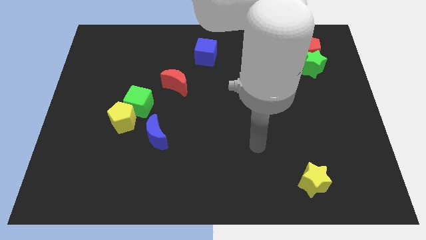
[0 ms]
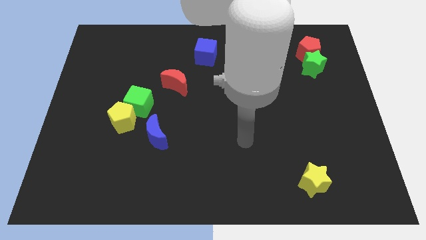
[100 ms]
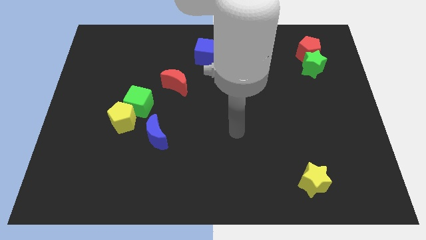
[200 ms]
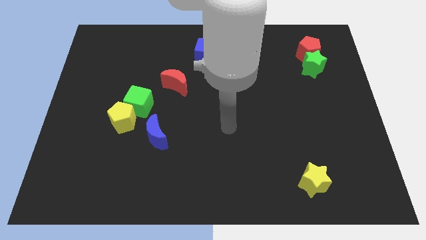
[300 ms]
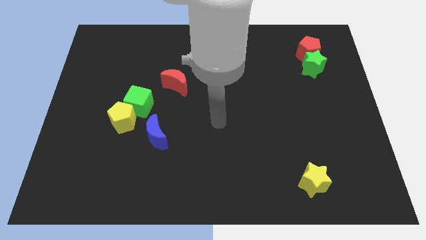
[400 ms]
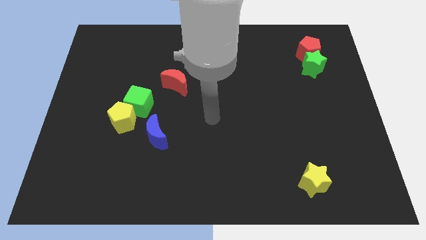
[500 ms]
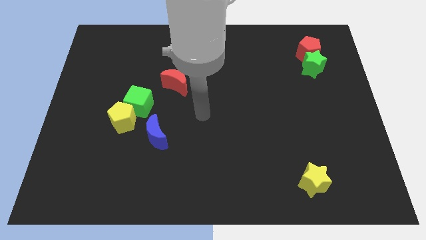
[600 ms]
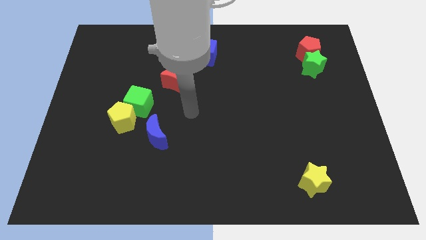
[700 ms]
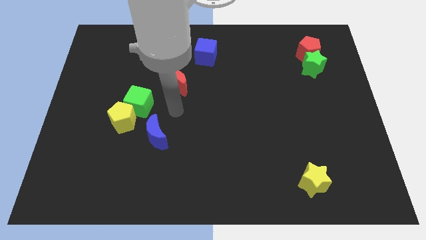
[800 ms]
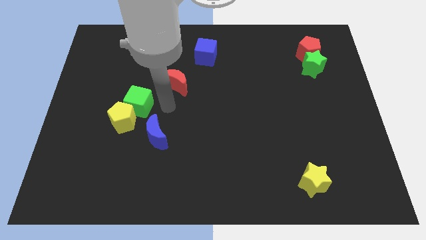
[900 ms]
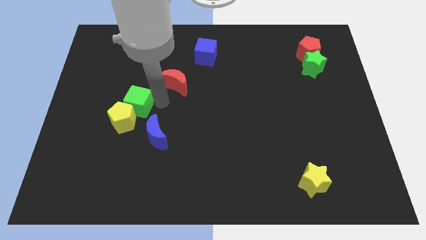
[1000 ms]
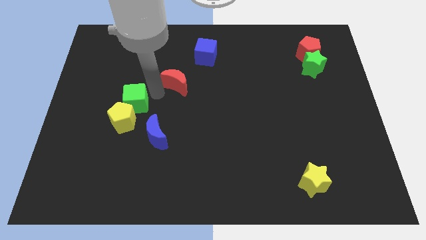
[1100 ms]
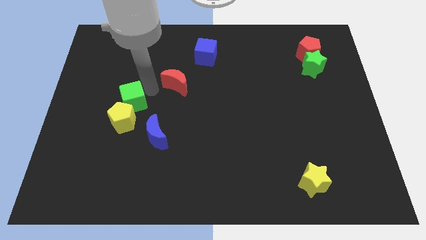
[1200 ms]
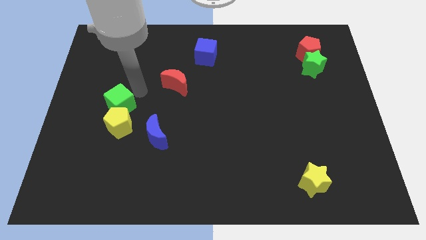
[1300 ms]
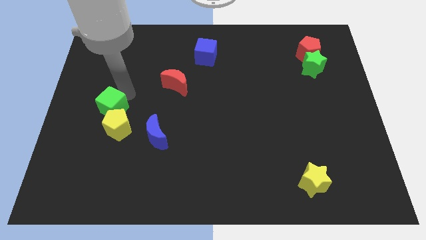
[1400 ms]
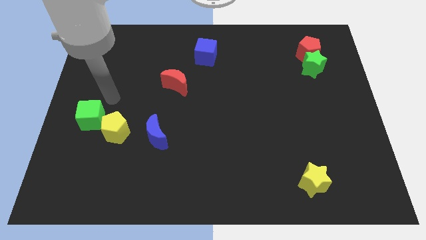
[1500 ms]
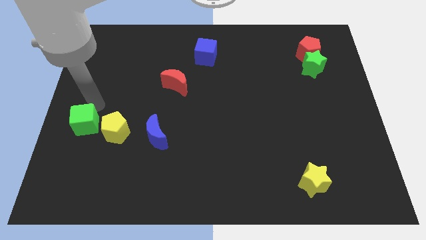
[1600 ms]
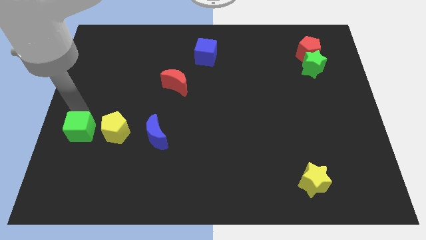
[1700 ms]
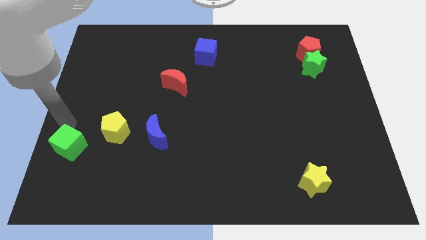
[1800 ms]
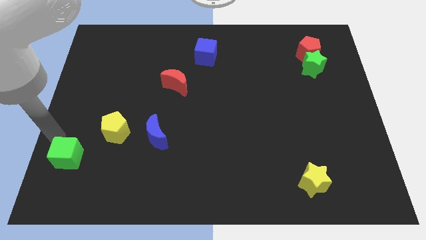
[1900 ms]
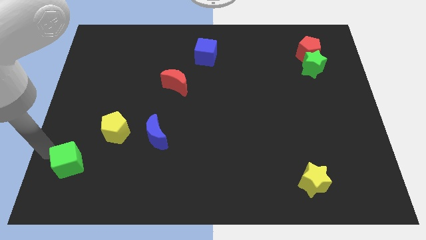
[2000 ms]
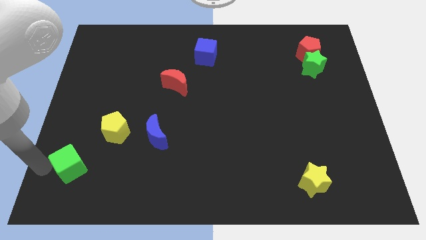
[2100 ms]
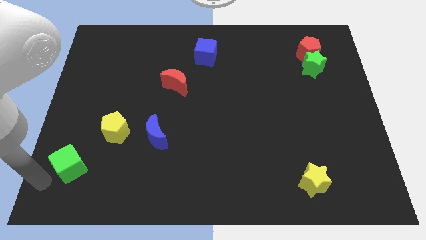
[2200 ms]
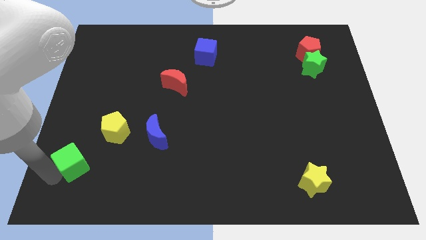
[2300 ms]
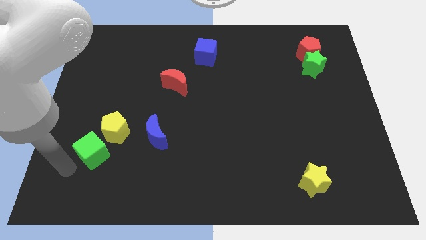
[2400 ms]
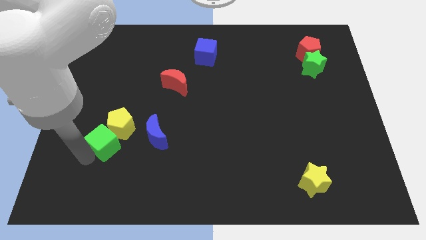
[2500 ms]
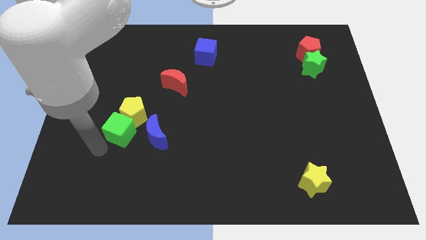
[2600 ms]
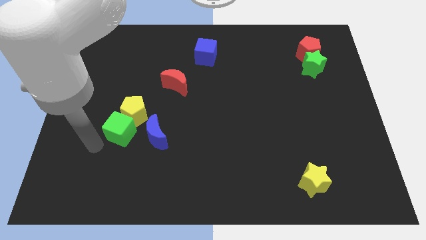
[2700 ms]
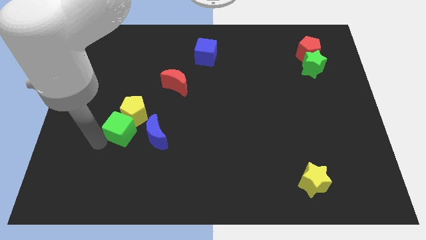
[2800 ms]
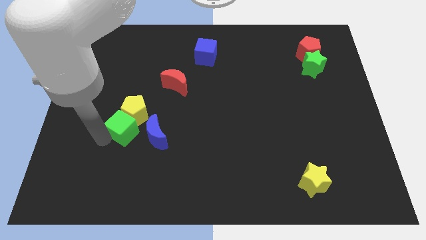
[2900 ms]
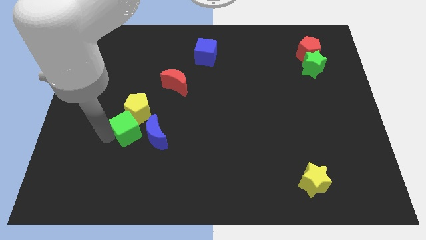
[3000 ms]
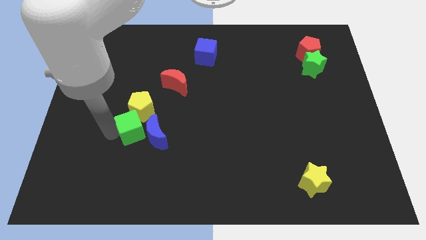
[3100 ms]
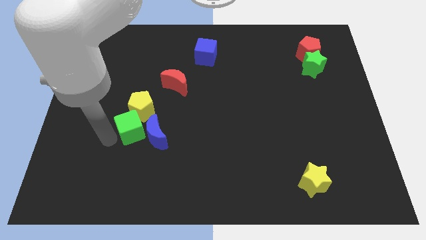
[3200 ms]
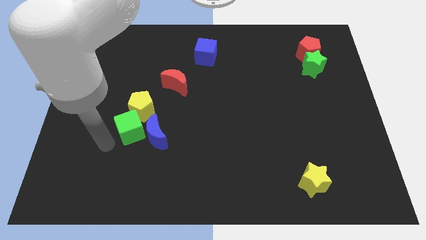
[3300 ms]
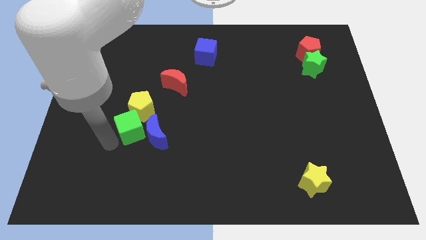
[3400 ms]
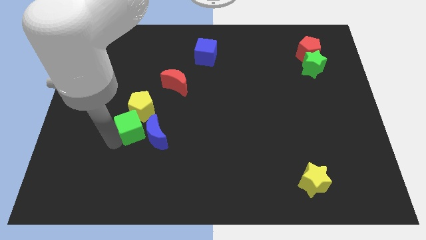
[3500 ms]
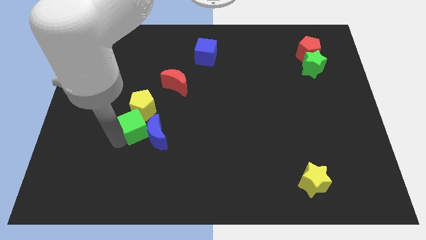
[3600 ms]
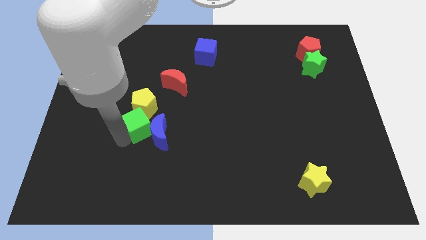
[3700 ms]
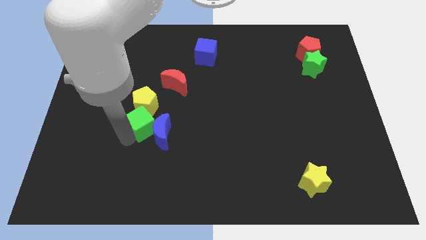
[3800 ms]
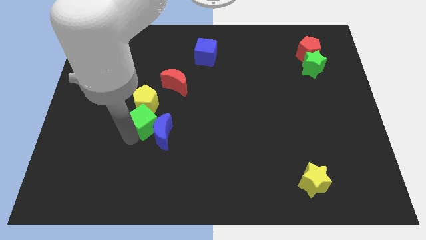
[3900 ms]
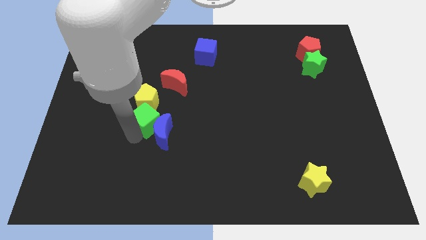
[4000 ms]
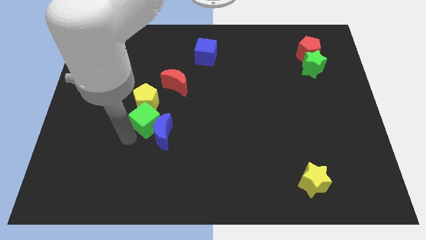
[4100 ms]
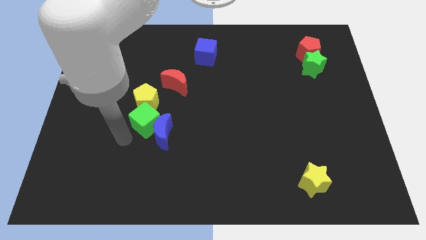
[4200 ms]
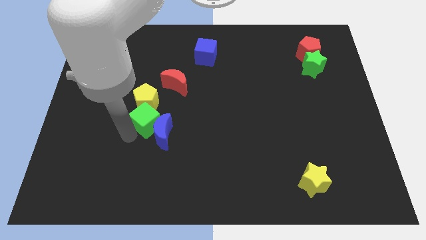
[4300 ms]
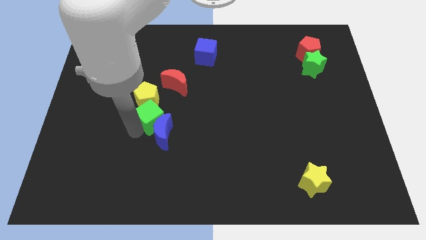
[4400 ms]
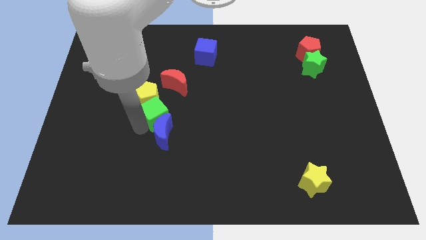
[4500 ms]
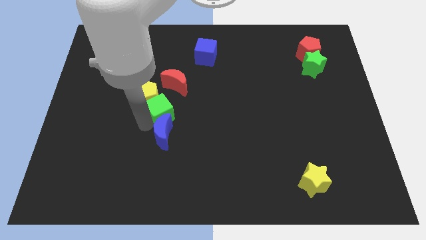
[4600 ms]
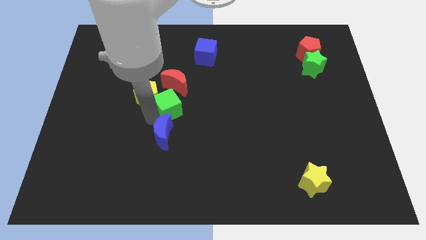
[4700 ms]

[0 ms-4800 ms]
push the green cube to the right slightly

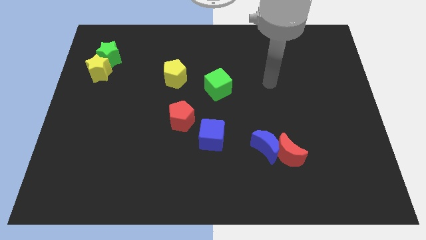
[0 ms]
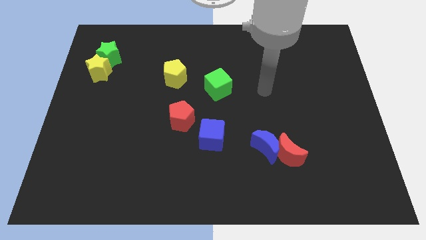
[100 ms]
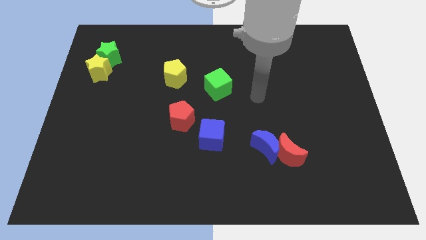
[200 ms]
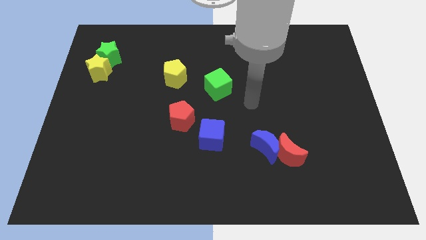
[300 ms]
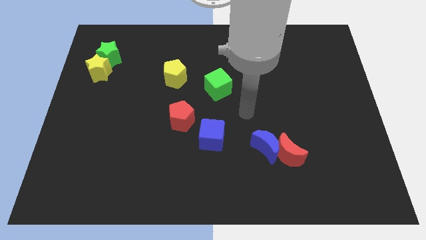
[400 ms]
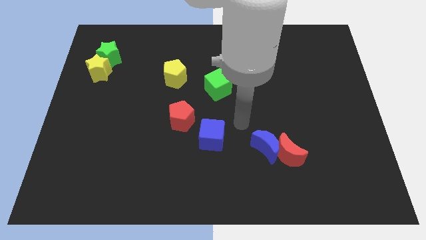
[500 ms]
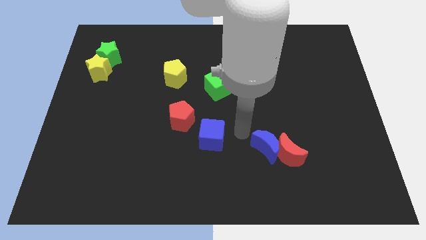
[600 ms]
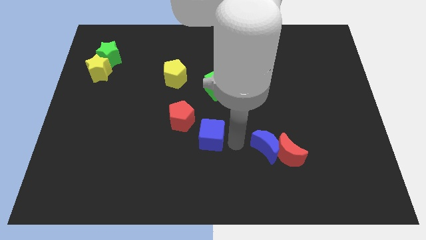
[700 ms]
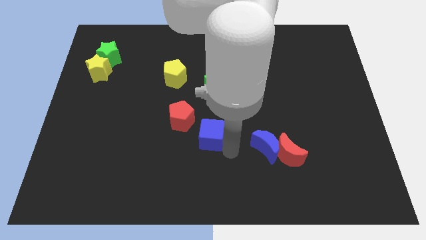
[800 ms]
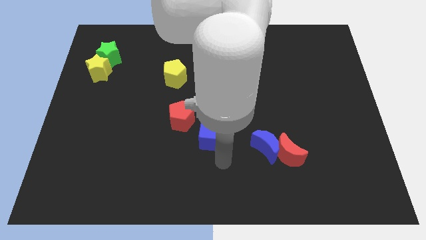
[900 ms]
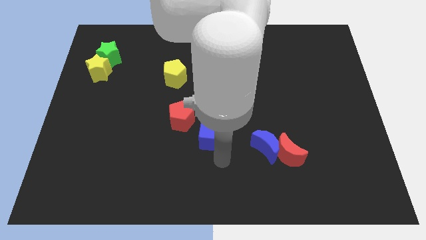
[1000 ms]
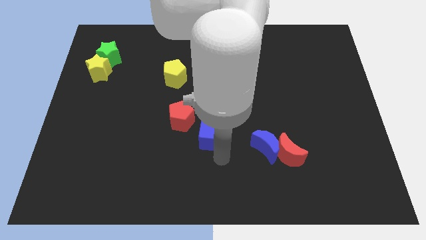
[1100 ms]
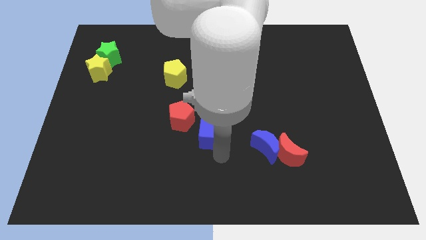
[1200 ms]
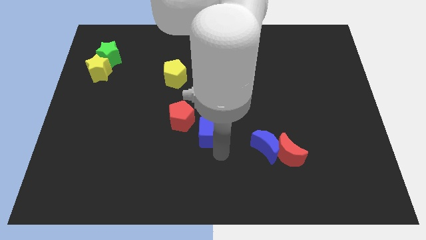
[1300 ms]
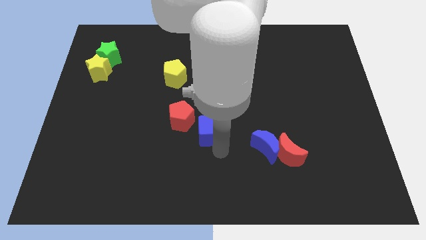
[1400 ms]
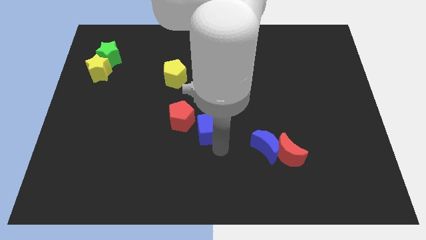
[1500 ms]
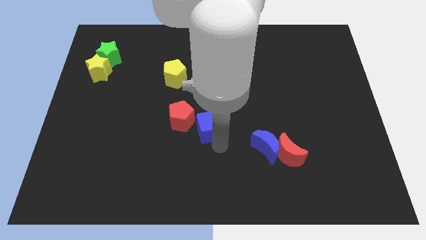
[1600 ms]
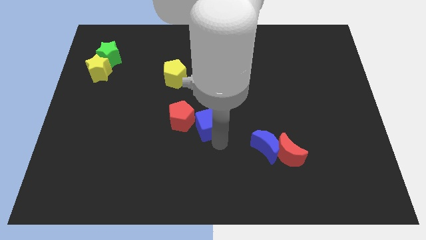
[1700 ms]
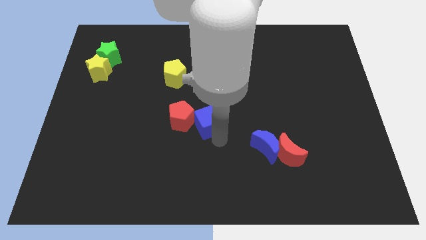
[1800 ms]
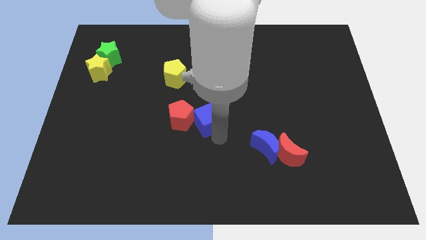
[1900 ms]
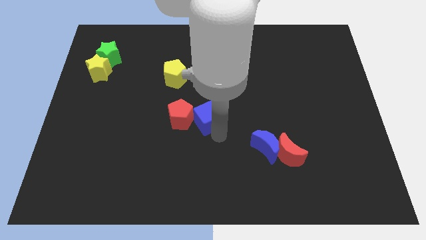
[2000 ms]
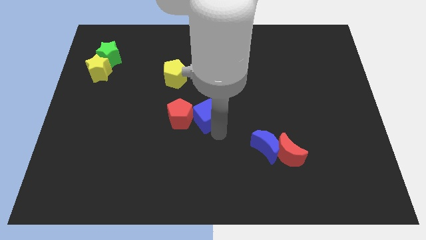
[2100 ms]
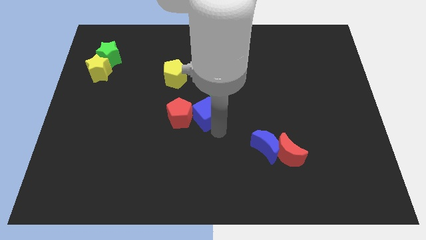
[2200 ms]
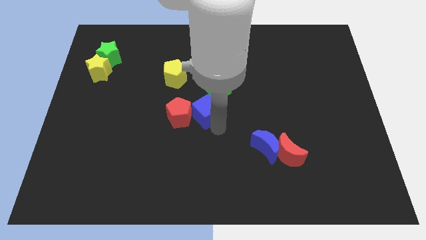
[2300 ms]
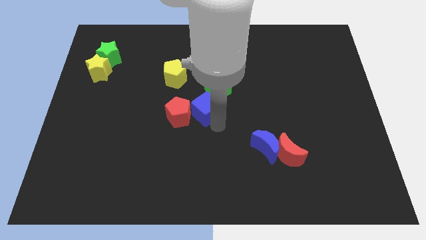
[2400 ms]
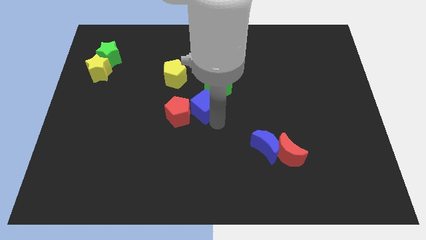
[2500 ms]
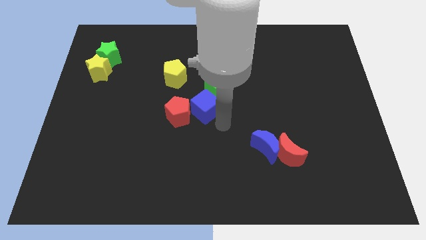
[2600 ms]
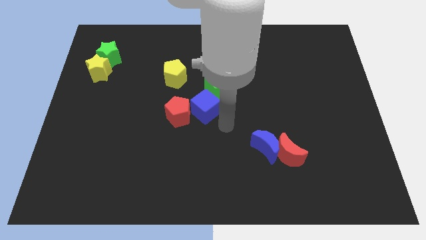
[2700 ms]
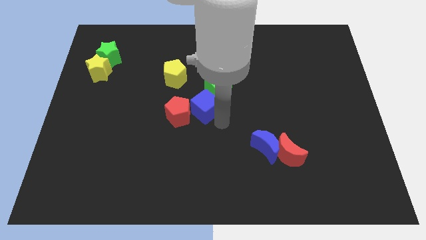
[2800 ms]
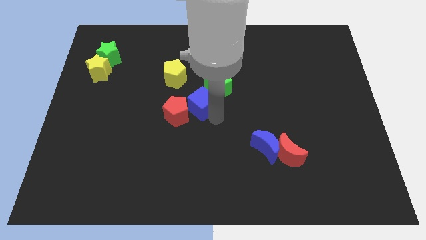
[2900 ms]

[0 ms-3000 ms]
slightly push the blue cube diagonally upwards and to the left
